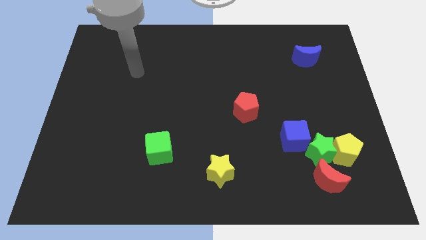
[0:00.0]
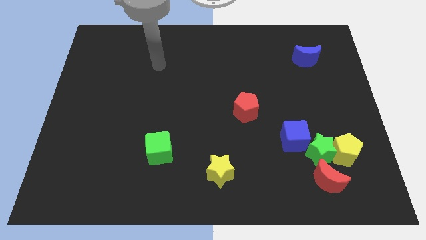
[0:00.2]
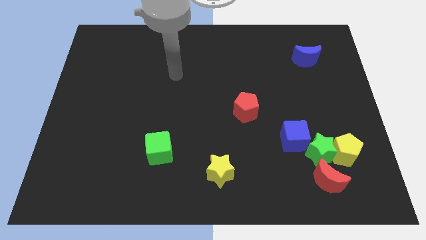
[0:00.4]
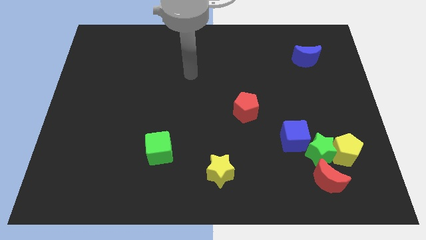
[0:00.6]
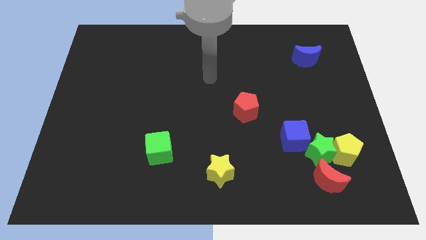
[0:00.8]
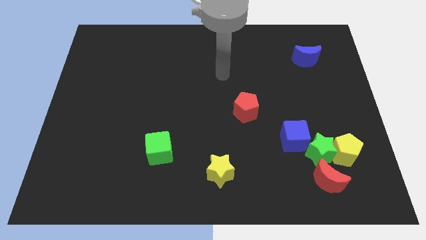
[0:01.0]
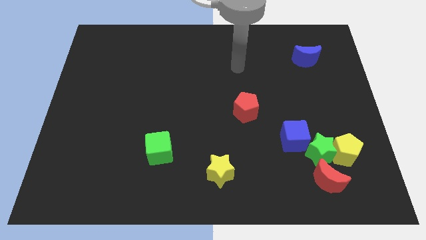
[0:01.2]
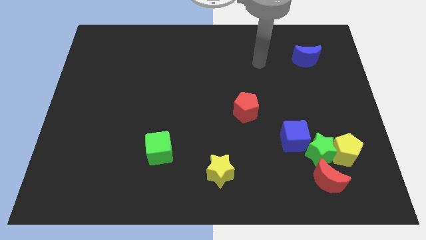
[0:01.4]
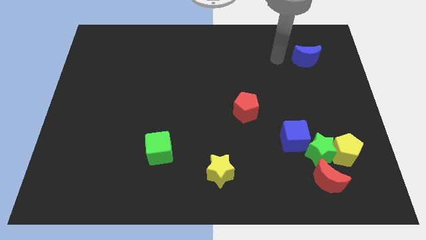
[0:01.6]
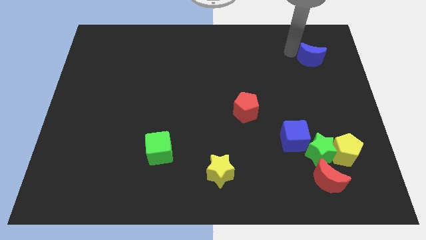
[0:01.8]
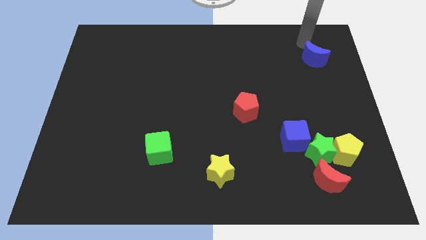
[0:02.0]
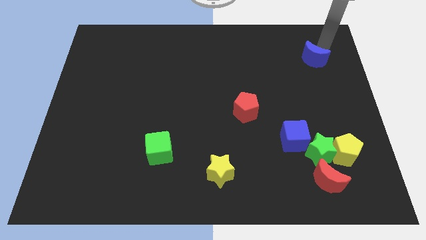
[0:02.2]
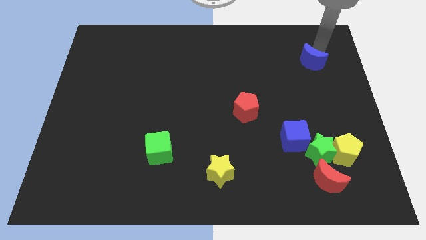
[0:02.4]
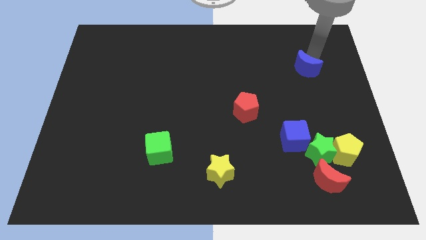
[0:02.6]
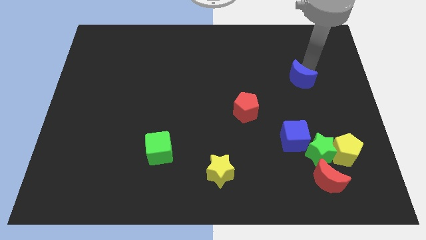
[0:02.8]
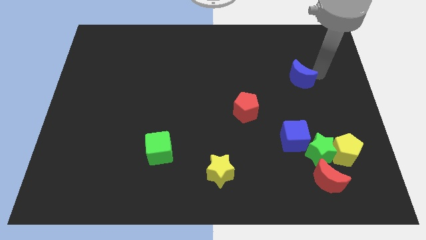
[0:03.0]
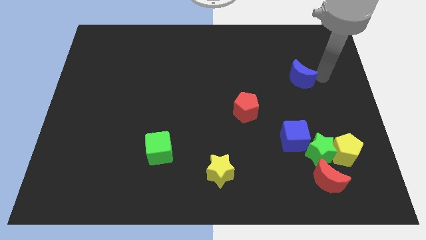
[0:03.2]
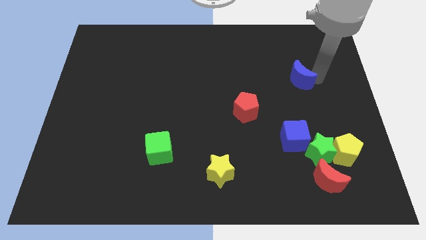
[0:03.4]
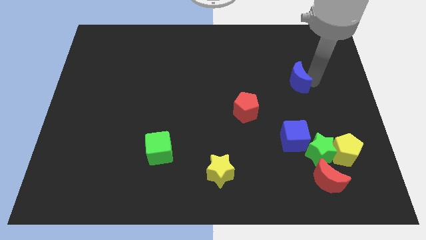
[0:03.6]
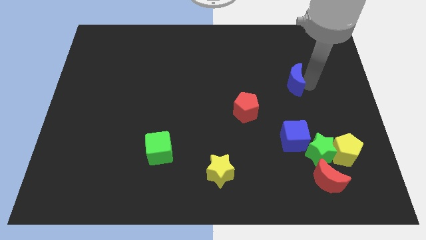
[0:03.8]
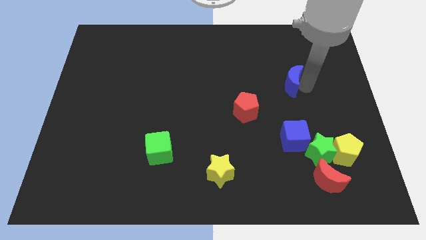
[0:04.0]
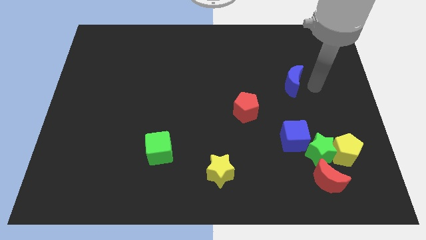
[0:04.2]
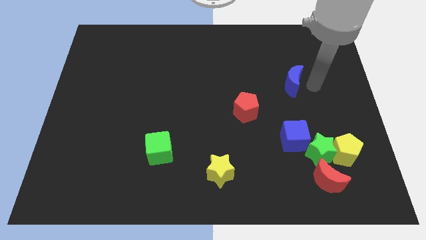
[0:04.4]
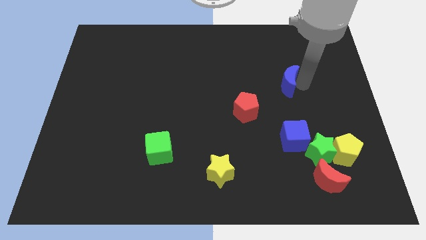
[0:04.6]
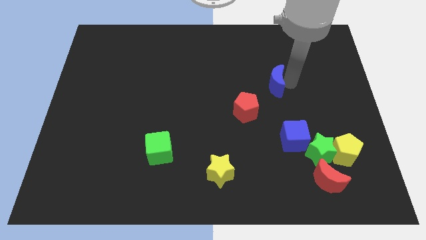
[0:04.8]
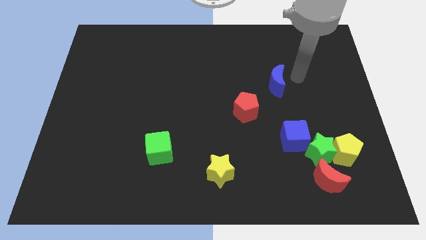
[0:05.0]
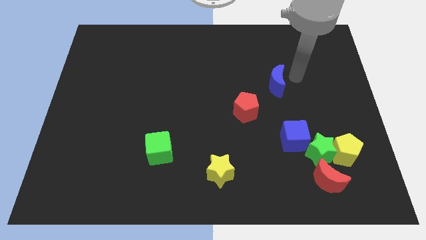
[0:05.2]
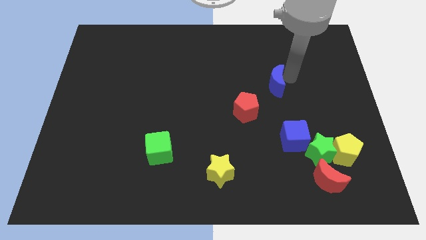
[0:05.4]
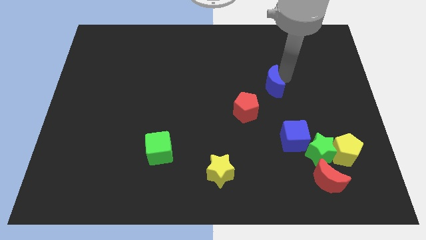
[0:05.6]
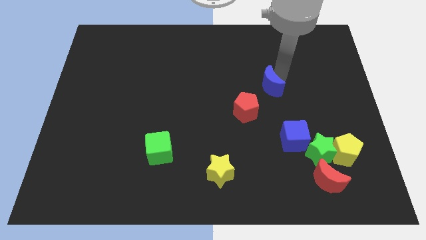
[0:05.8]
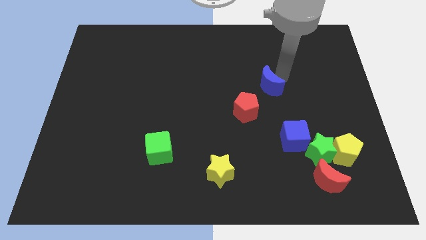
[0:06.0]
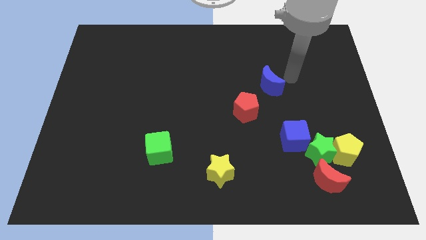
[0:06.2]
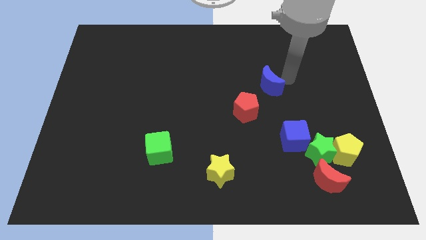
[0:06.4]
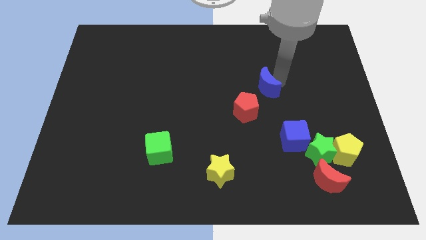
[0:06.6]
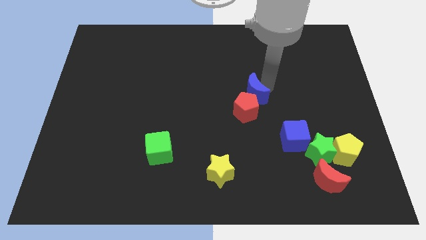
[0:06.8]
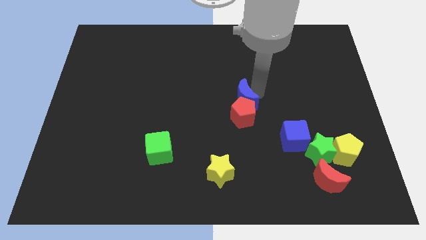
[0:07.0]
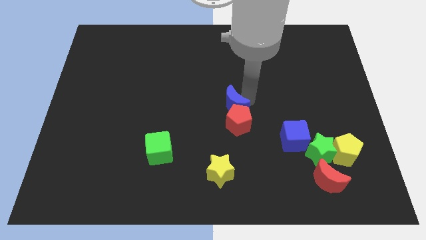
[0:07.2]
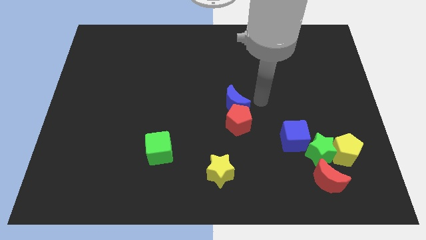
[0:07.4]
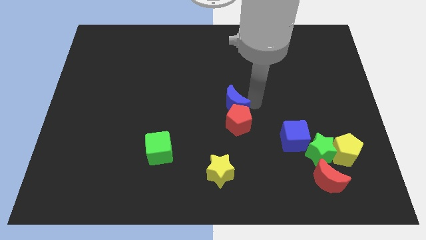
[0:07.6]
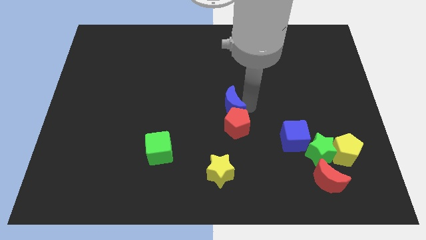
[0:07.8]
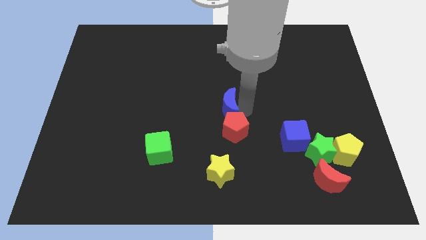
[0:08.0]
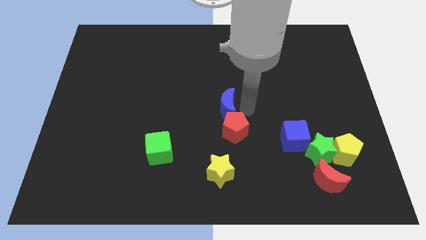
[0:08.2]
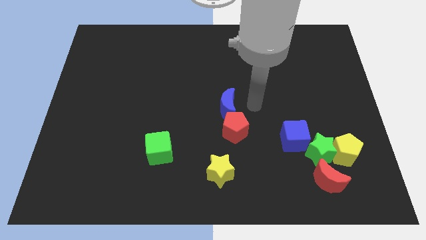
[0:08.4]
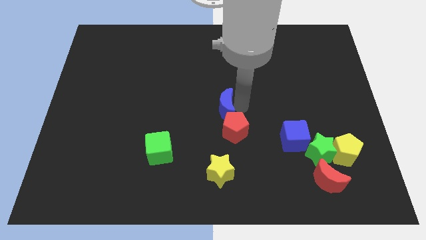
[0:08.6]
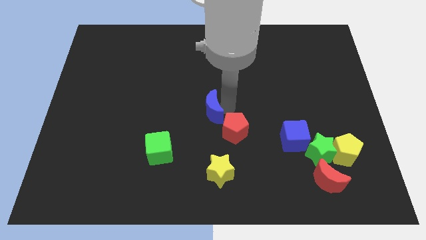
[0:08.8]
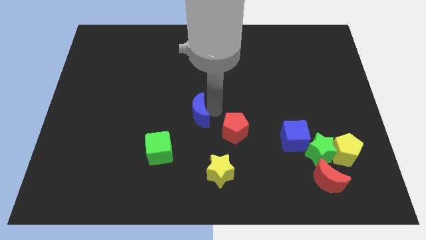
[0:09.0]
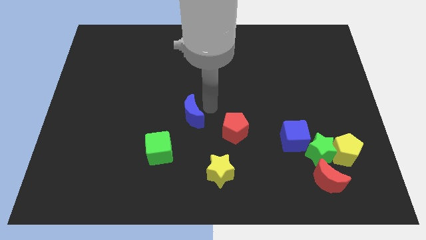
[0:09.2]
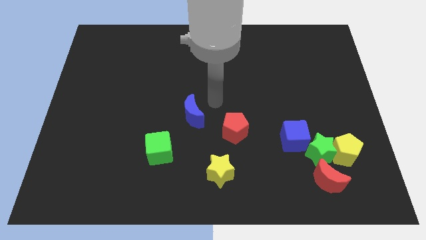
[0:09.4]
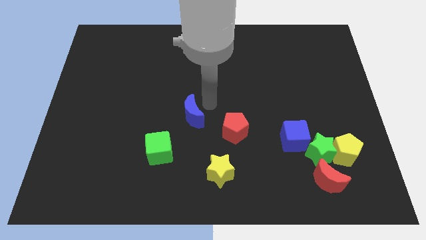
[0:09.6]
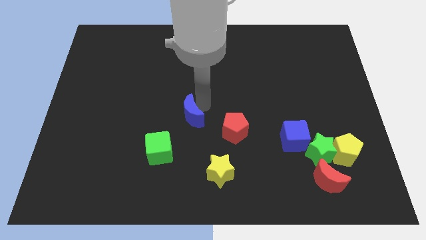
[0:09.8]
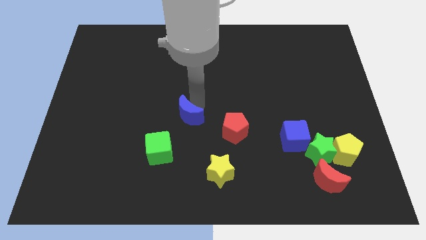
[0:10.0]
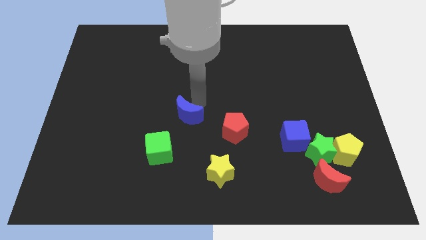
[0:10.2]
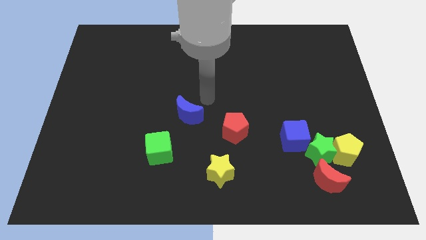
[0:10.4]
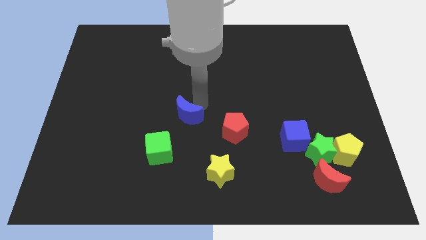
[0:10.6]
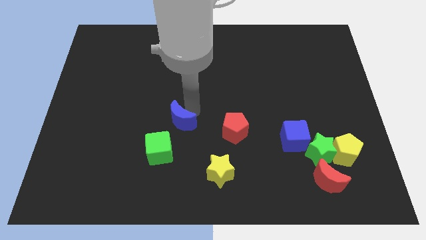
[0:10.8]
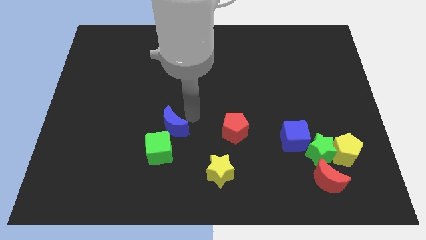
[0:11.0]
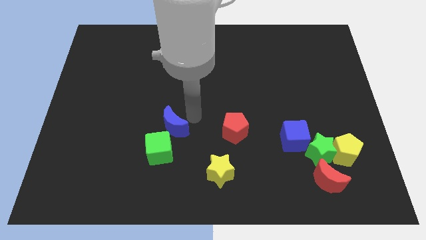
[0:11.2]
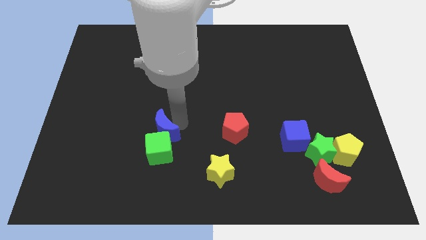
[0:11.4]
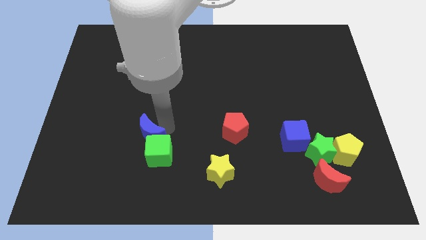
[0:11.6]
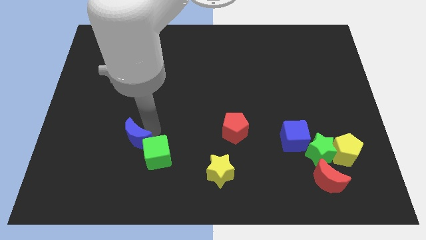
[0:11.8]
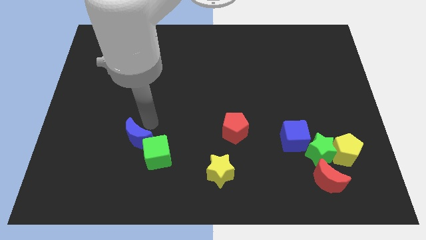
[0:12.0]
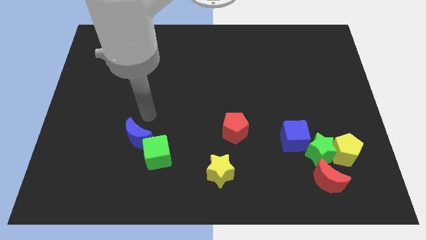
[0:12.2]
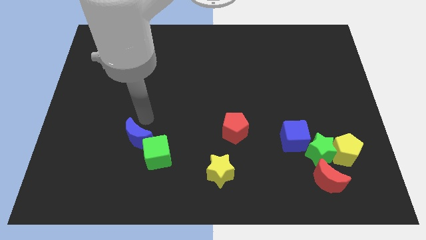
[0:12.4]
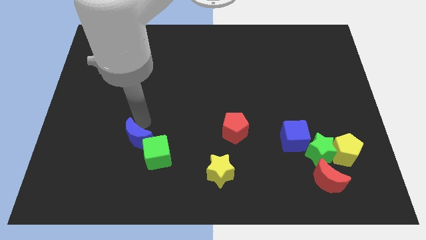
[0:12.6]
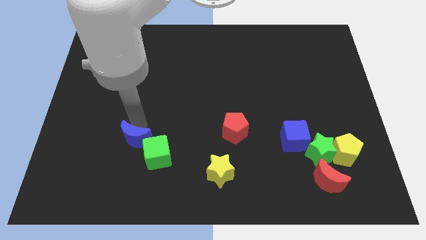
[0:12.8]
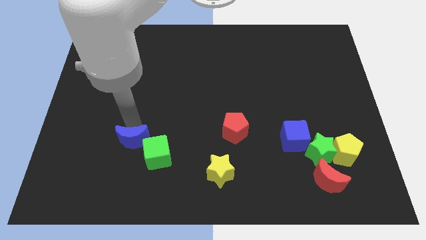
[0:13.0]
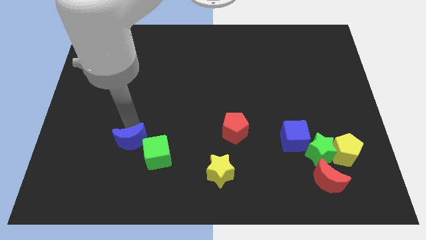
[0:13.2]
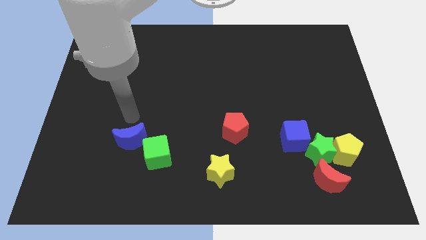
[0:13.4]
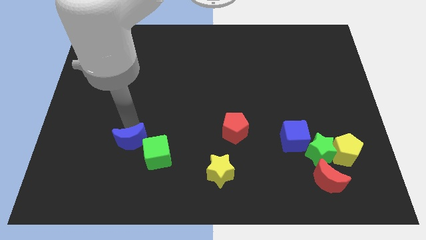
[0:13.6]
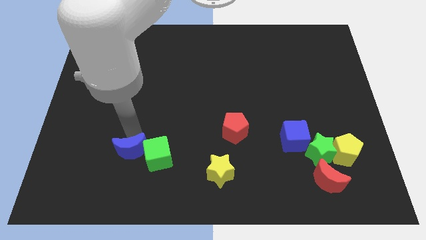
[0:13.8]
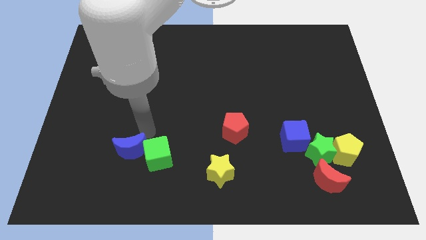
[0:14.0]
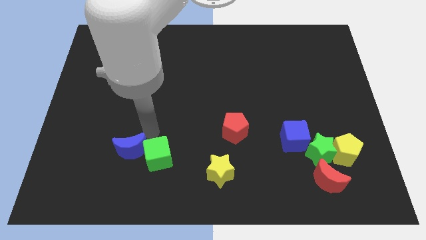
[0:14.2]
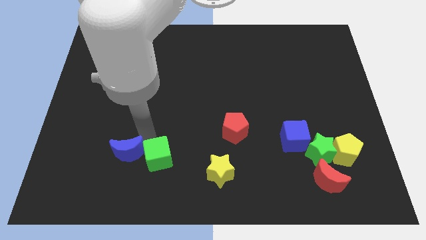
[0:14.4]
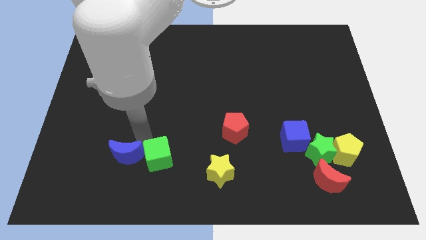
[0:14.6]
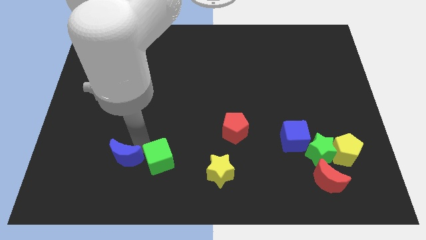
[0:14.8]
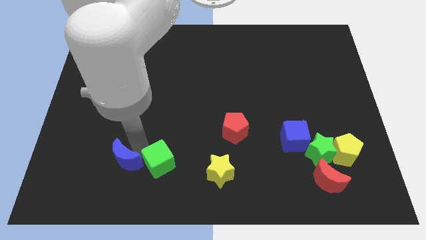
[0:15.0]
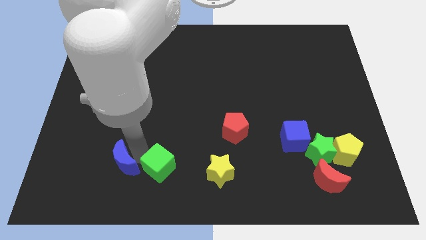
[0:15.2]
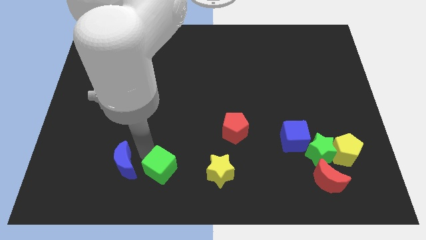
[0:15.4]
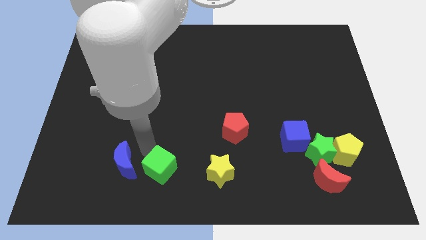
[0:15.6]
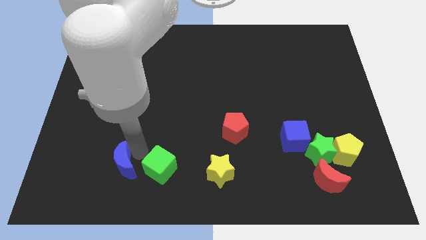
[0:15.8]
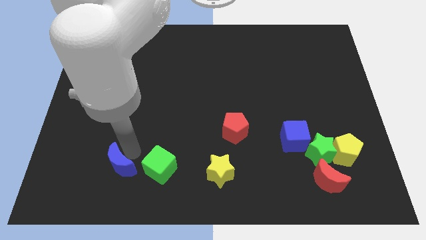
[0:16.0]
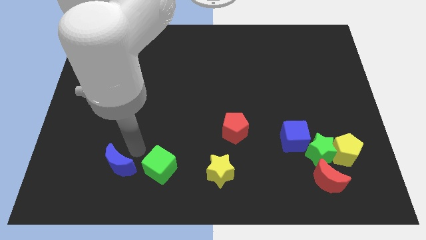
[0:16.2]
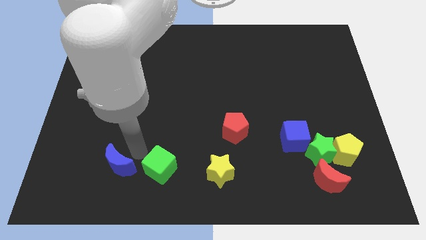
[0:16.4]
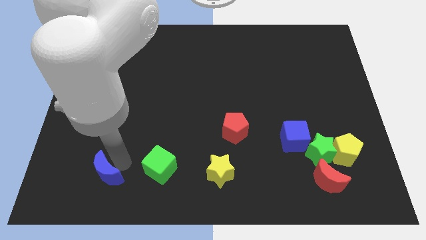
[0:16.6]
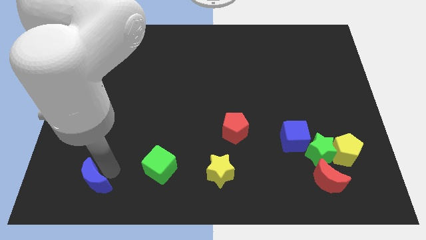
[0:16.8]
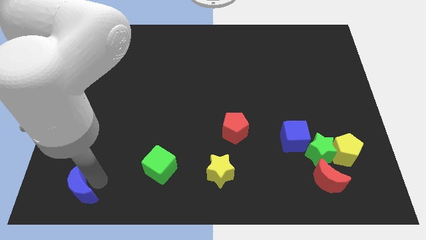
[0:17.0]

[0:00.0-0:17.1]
move the blue moon to the bottom left
